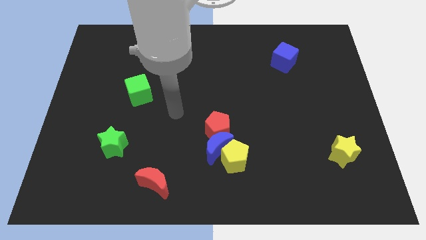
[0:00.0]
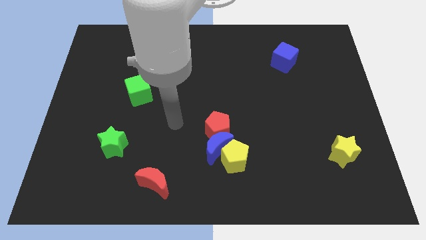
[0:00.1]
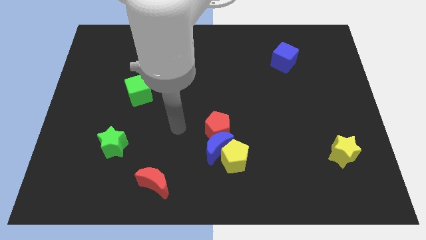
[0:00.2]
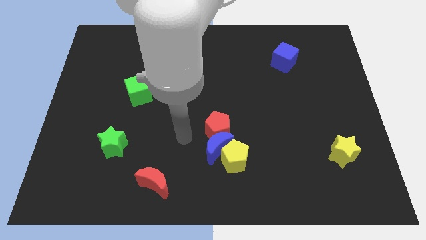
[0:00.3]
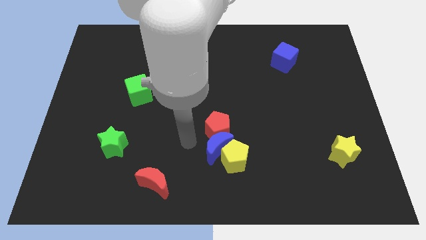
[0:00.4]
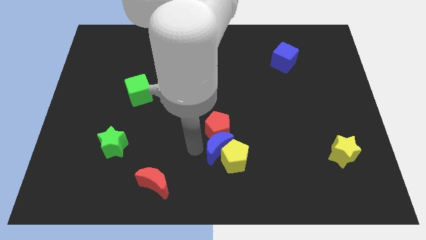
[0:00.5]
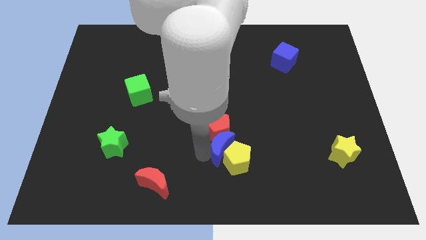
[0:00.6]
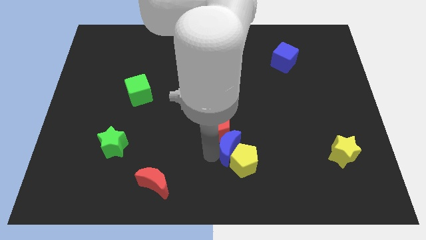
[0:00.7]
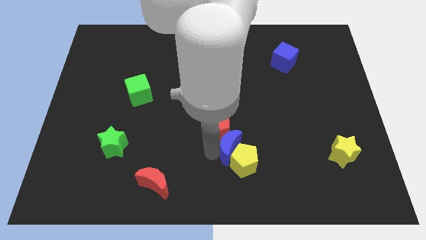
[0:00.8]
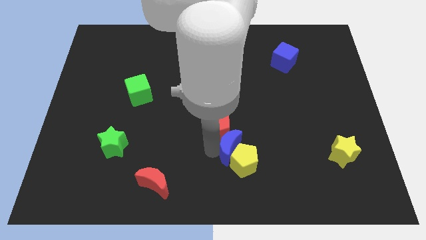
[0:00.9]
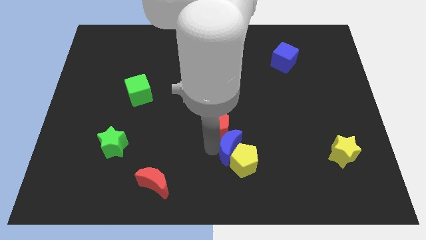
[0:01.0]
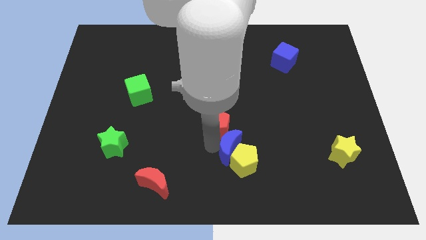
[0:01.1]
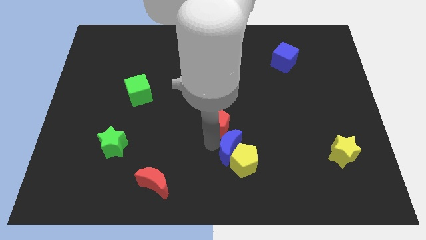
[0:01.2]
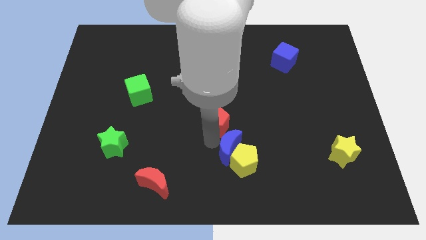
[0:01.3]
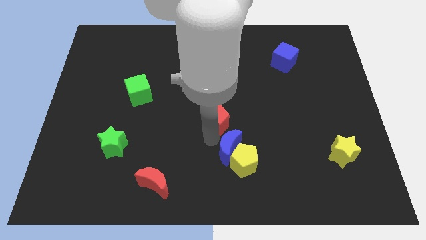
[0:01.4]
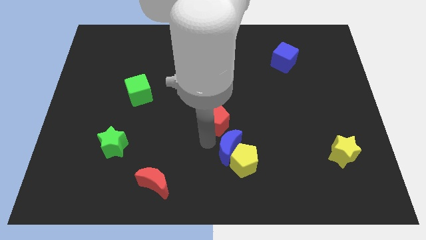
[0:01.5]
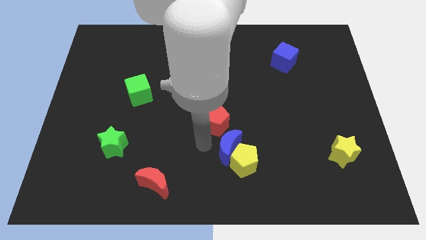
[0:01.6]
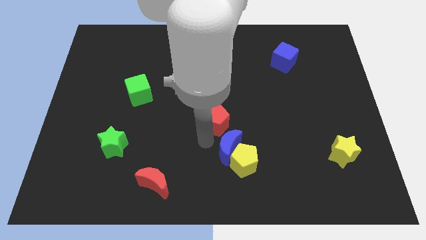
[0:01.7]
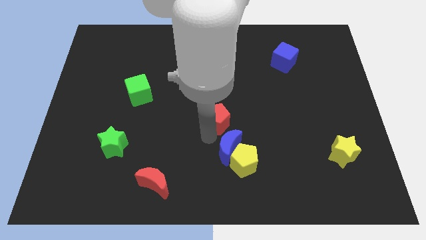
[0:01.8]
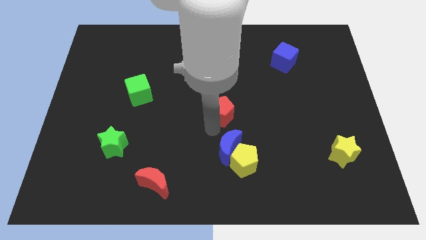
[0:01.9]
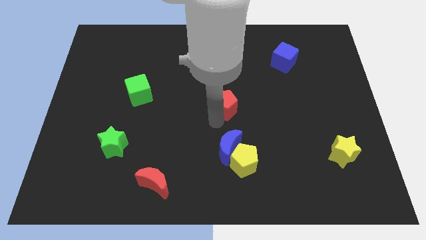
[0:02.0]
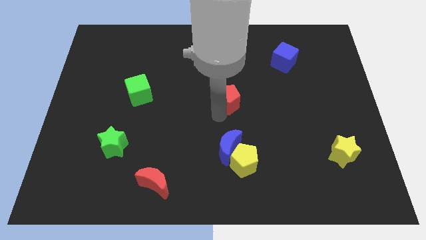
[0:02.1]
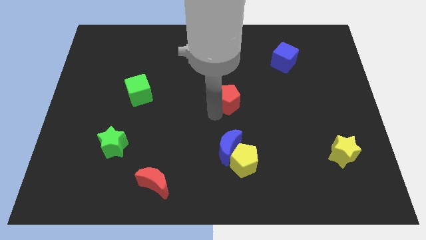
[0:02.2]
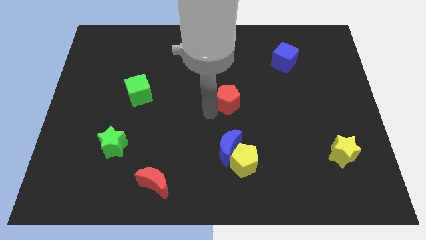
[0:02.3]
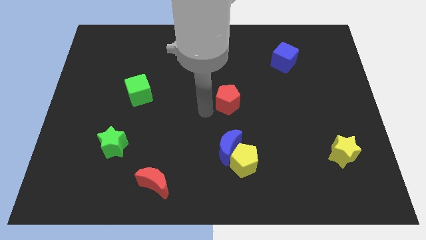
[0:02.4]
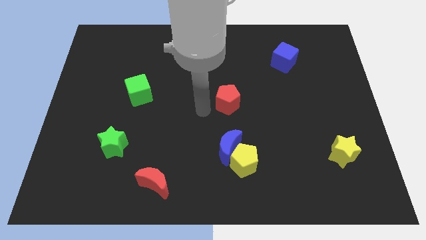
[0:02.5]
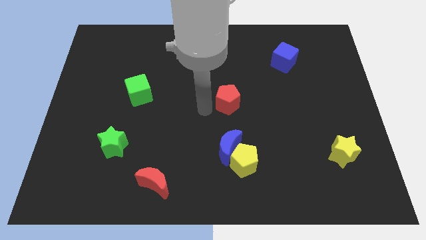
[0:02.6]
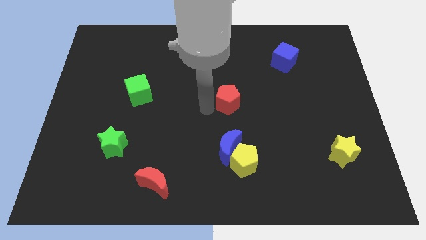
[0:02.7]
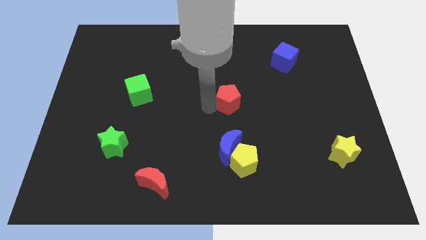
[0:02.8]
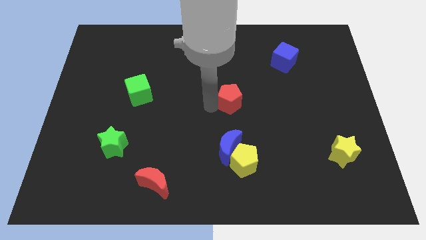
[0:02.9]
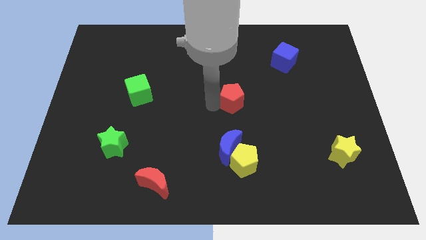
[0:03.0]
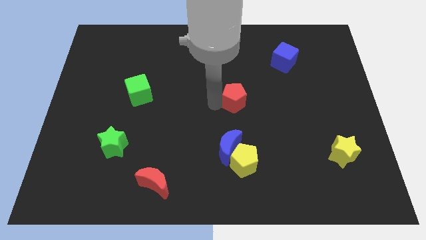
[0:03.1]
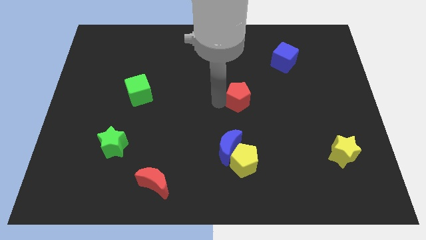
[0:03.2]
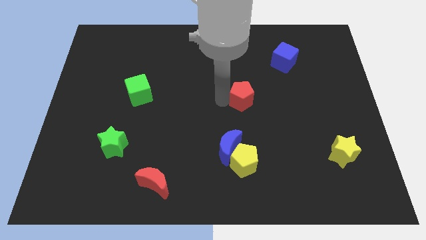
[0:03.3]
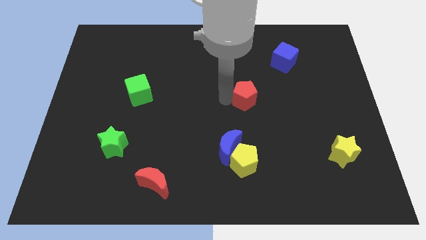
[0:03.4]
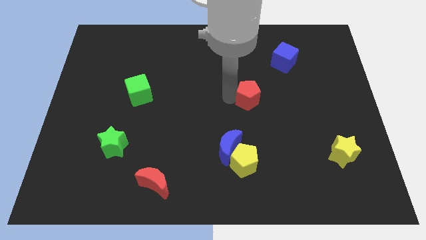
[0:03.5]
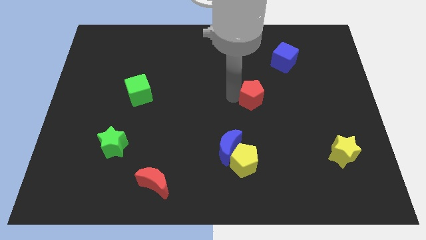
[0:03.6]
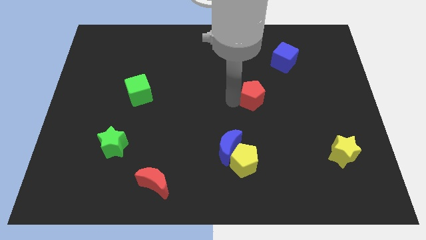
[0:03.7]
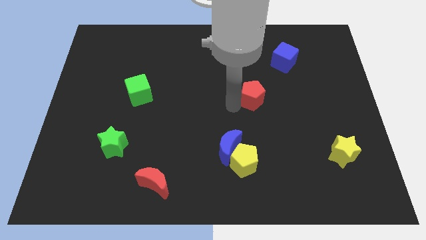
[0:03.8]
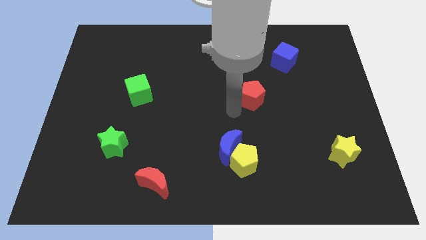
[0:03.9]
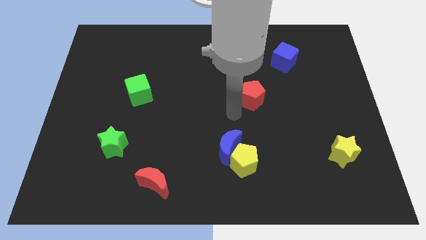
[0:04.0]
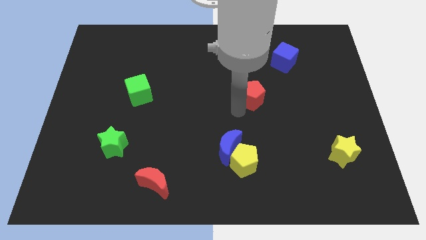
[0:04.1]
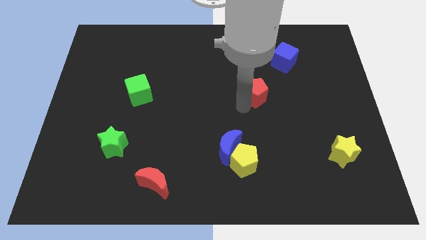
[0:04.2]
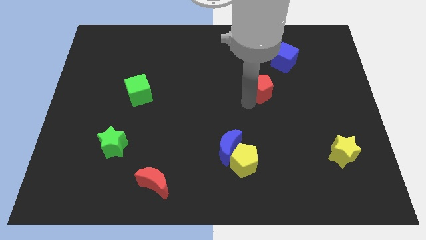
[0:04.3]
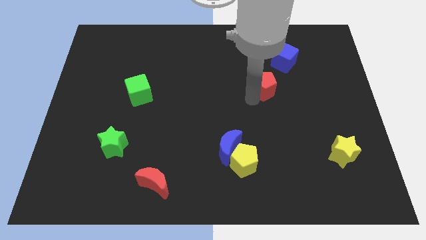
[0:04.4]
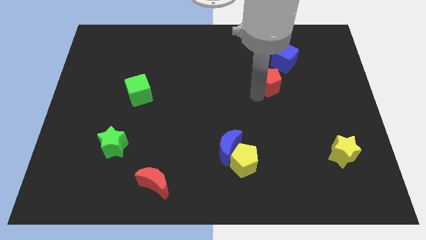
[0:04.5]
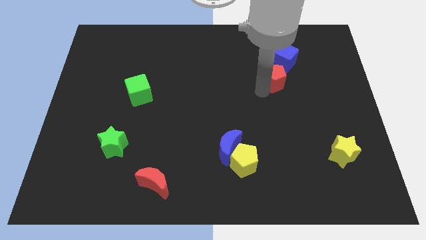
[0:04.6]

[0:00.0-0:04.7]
push the red pentagon diagonally up and to the right

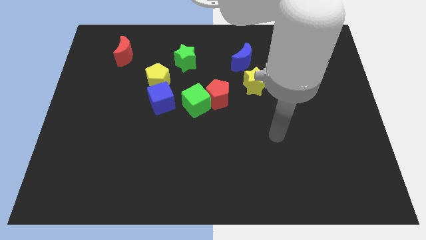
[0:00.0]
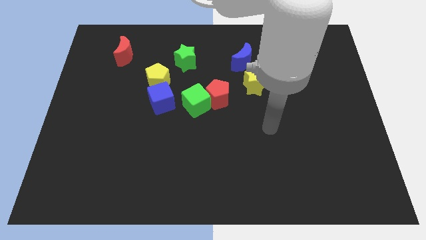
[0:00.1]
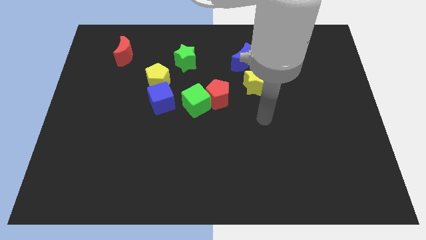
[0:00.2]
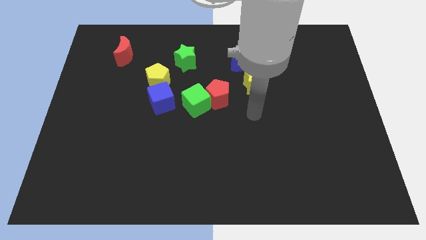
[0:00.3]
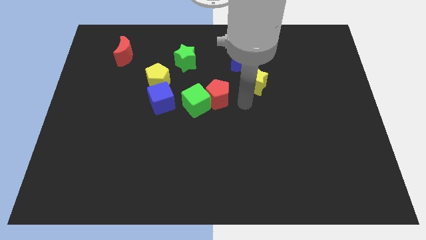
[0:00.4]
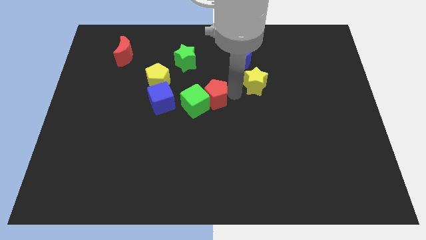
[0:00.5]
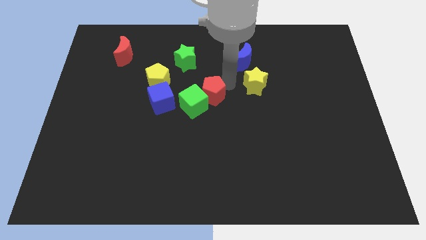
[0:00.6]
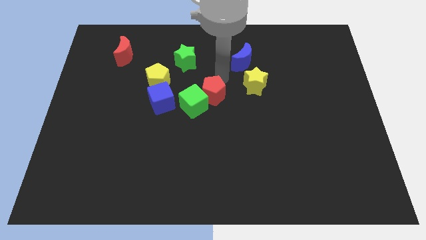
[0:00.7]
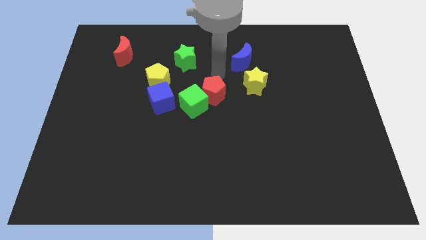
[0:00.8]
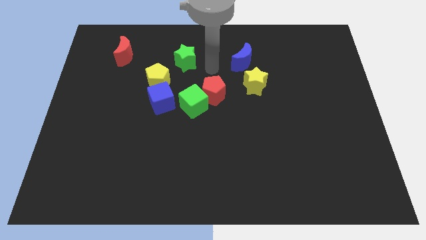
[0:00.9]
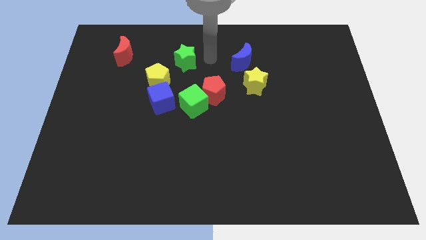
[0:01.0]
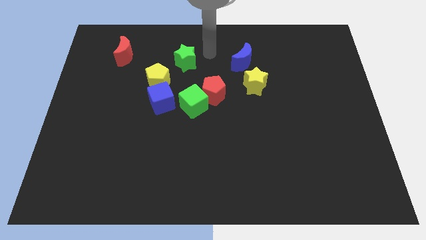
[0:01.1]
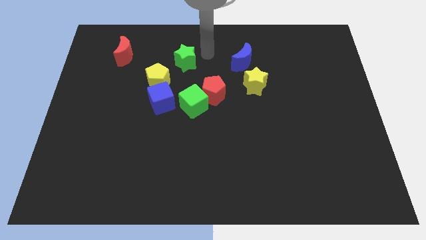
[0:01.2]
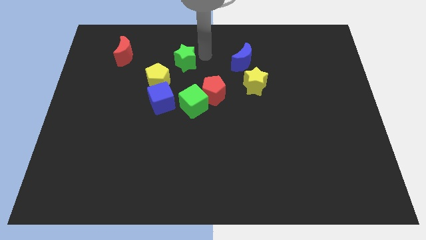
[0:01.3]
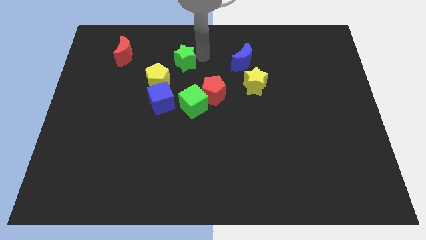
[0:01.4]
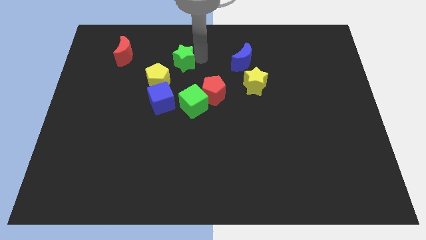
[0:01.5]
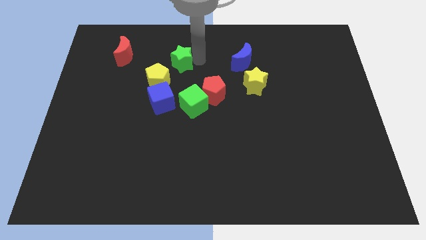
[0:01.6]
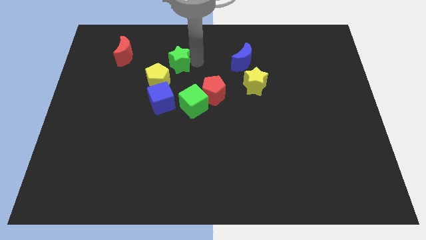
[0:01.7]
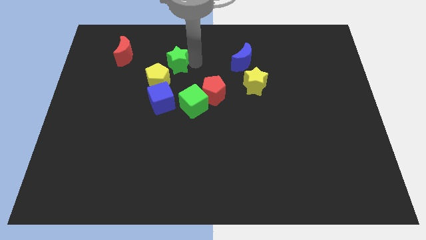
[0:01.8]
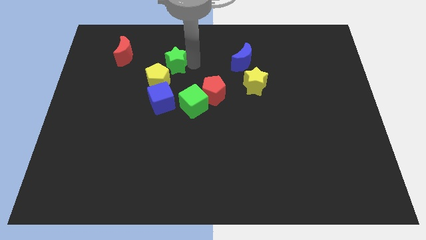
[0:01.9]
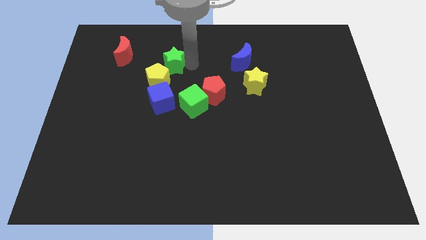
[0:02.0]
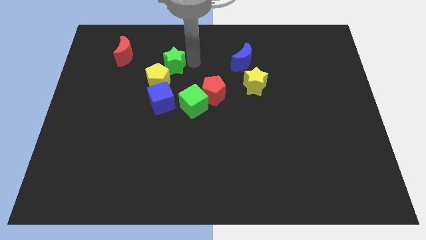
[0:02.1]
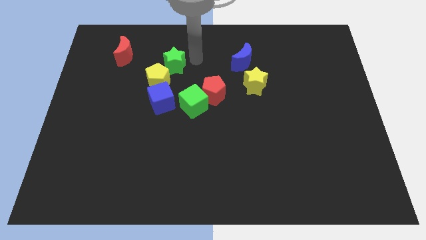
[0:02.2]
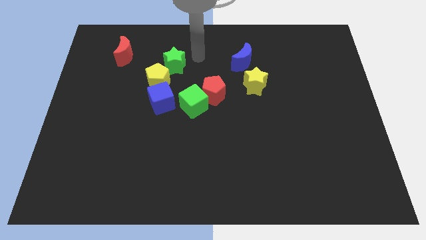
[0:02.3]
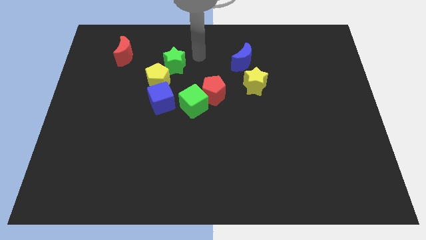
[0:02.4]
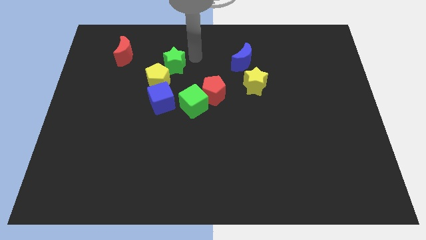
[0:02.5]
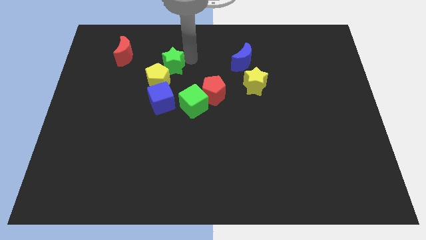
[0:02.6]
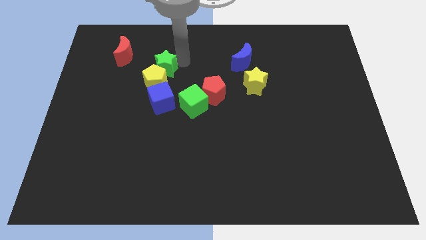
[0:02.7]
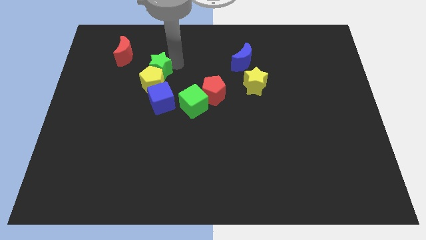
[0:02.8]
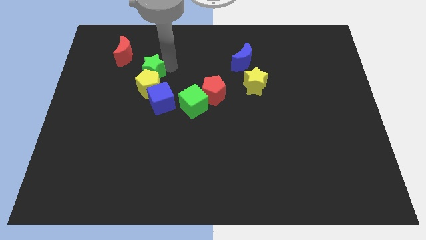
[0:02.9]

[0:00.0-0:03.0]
slide the green star somewhat downwards and then left

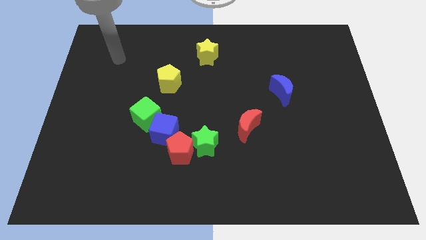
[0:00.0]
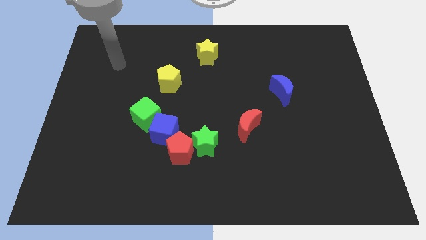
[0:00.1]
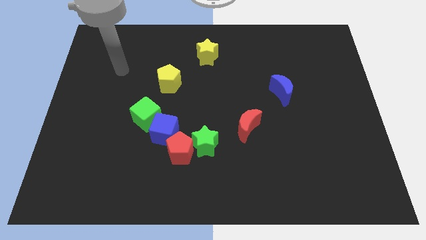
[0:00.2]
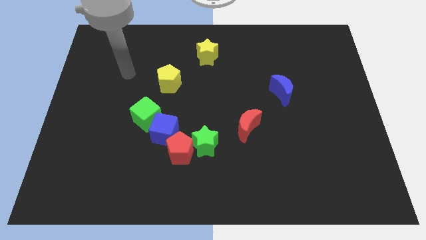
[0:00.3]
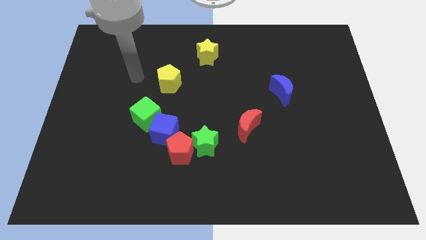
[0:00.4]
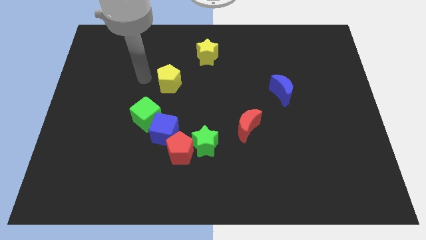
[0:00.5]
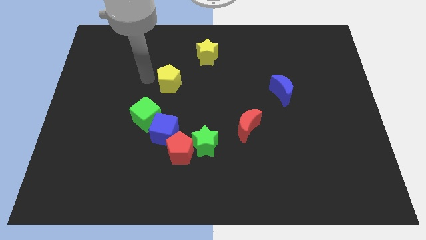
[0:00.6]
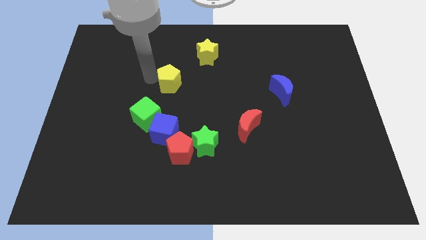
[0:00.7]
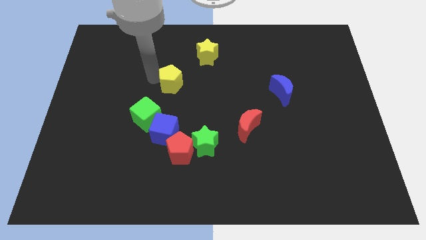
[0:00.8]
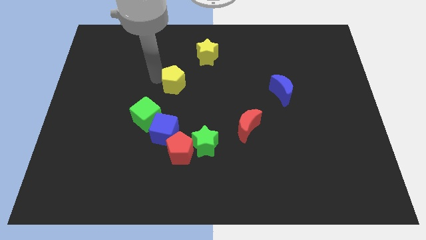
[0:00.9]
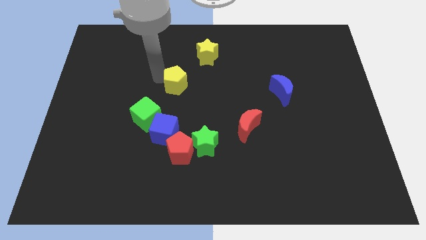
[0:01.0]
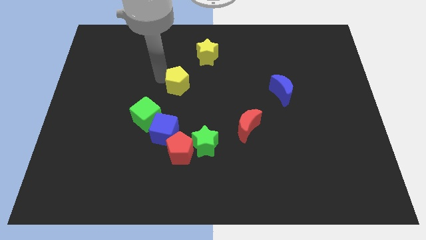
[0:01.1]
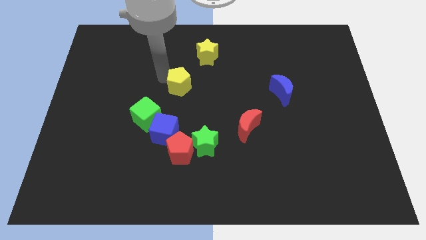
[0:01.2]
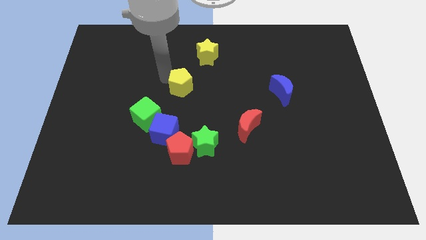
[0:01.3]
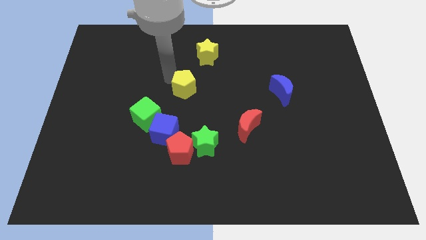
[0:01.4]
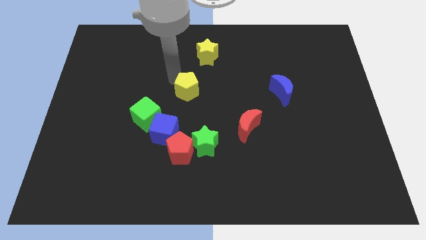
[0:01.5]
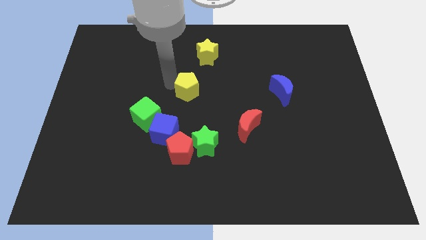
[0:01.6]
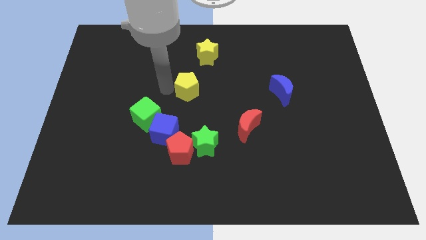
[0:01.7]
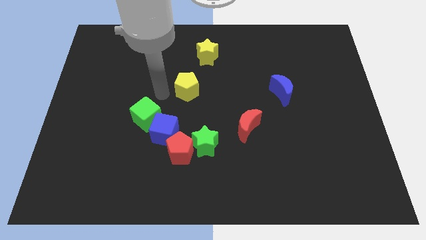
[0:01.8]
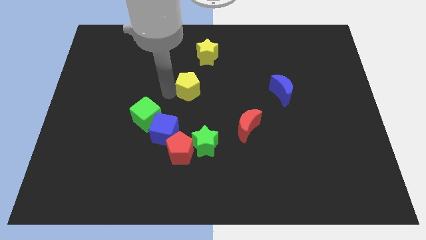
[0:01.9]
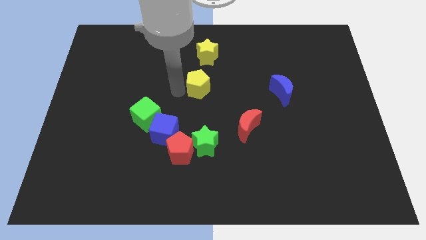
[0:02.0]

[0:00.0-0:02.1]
slide the yellow pentagon slightly right
